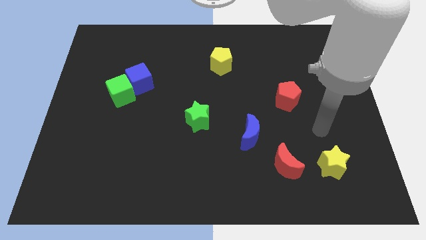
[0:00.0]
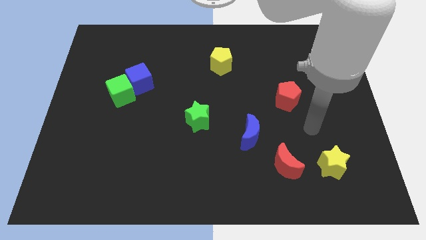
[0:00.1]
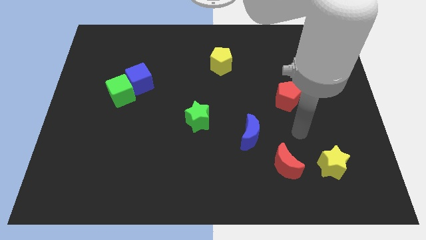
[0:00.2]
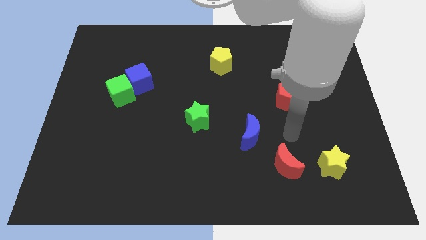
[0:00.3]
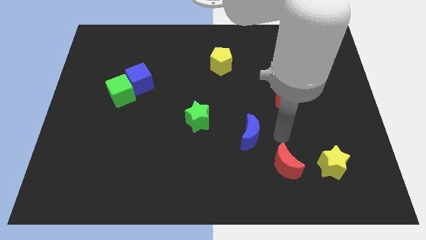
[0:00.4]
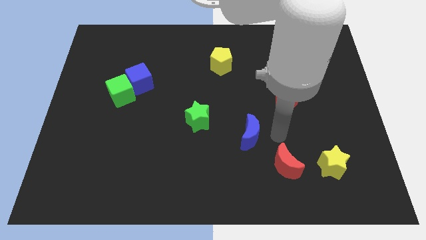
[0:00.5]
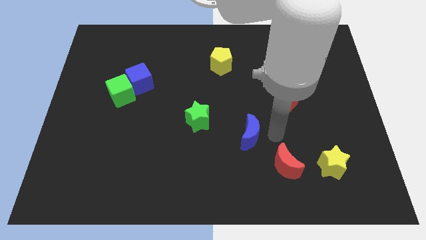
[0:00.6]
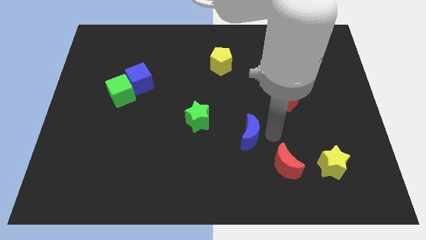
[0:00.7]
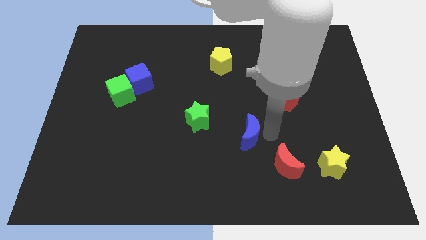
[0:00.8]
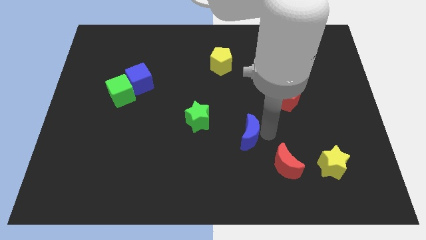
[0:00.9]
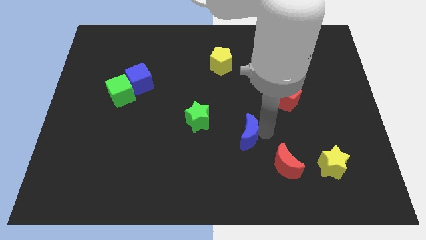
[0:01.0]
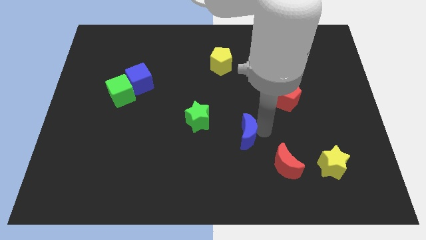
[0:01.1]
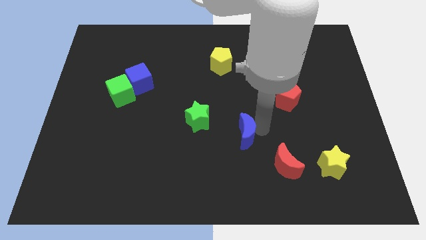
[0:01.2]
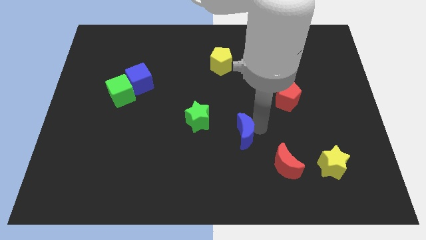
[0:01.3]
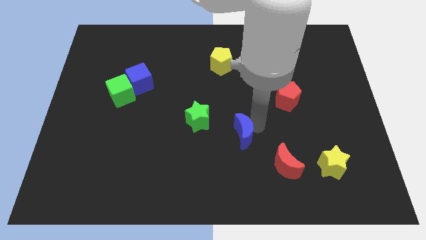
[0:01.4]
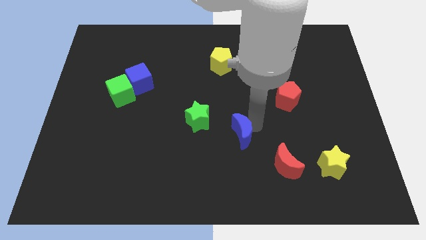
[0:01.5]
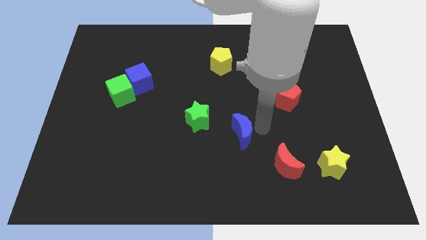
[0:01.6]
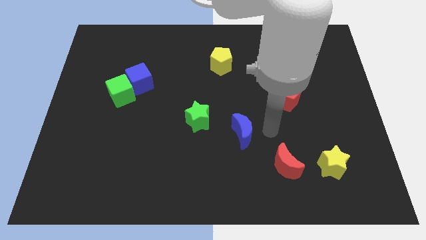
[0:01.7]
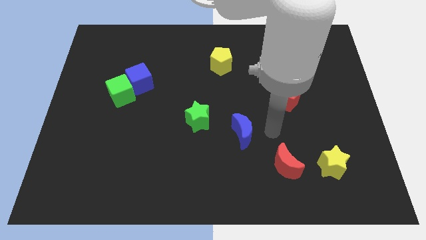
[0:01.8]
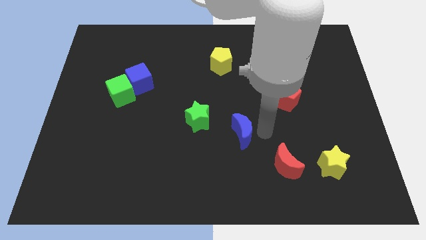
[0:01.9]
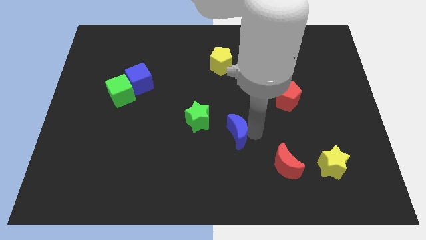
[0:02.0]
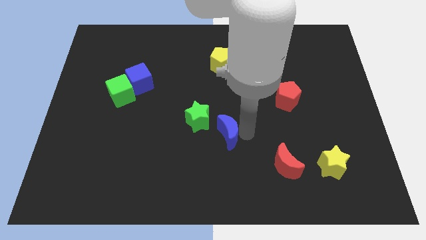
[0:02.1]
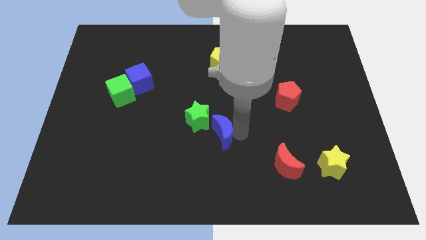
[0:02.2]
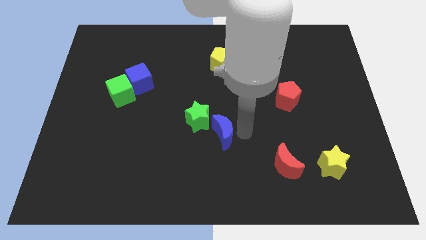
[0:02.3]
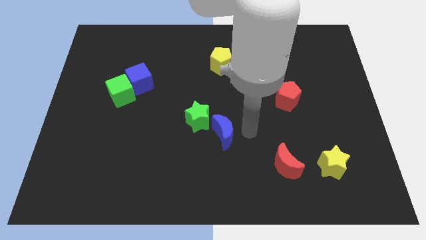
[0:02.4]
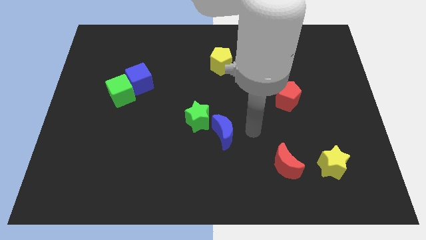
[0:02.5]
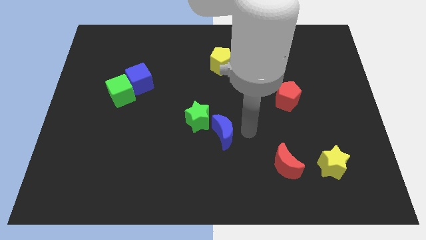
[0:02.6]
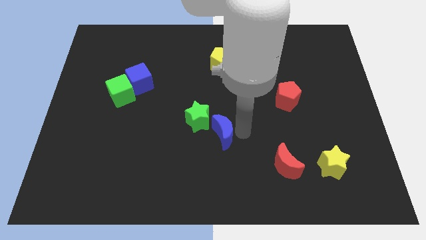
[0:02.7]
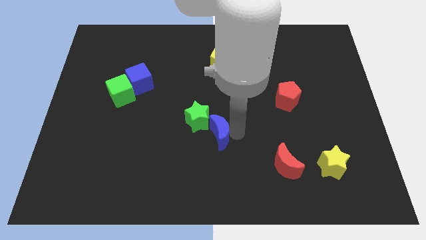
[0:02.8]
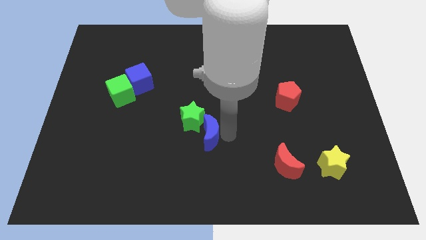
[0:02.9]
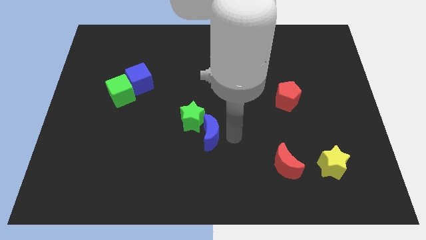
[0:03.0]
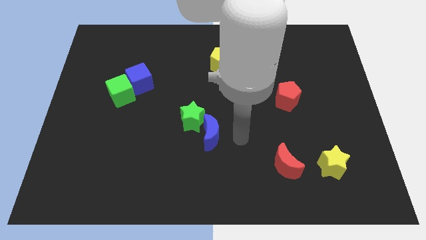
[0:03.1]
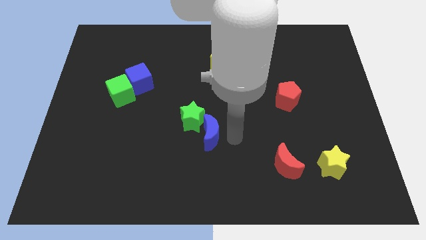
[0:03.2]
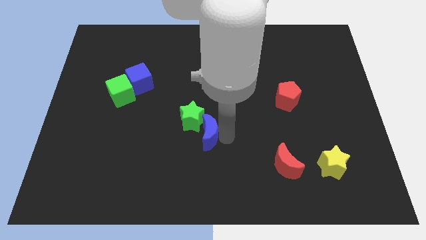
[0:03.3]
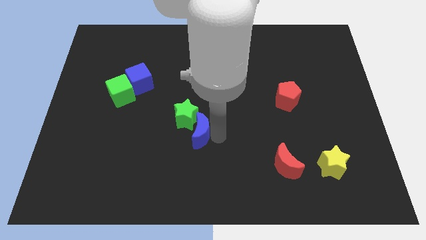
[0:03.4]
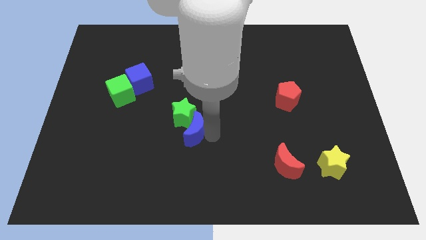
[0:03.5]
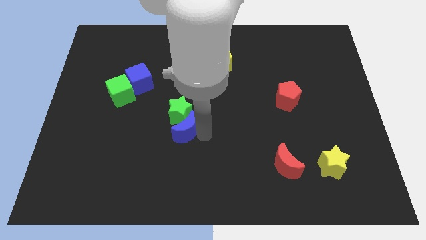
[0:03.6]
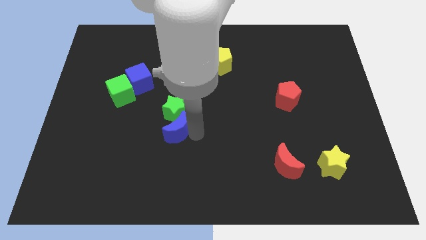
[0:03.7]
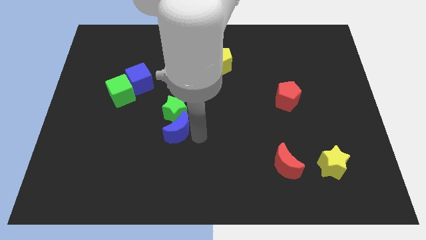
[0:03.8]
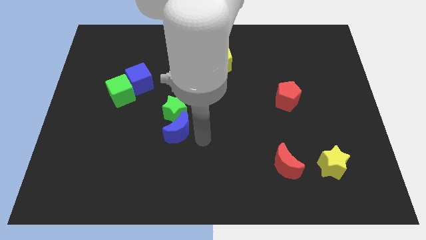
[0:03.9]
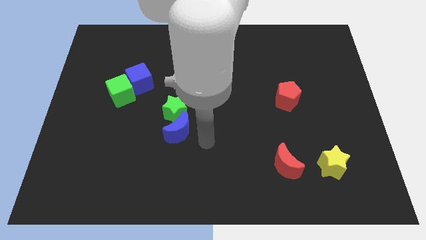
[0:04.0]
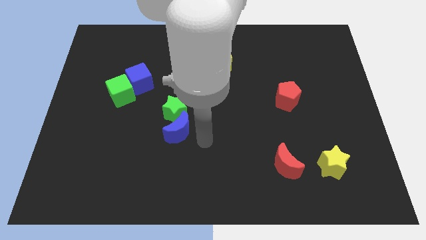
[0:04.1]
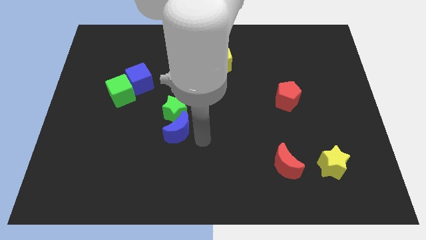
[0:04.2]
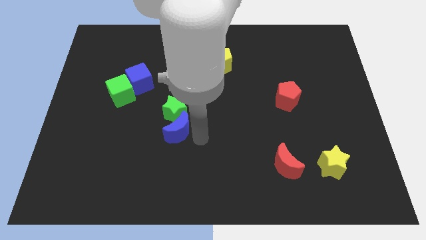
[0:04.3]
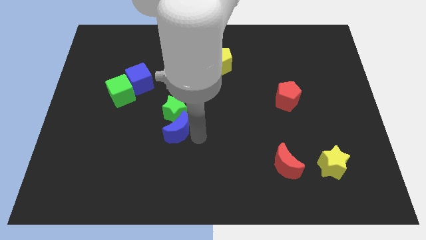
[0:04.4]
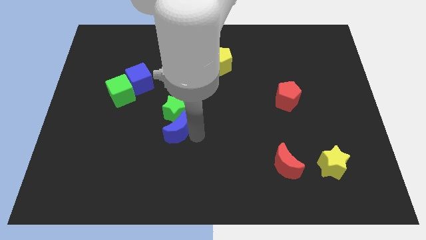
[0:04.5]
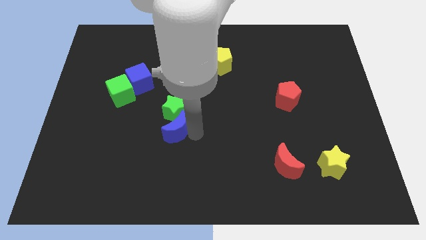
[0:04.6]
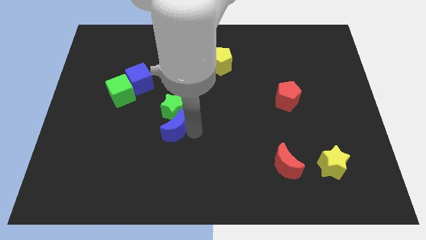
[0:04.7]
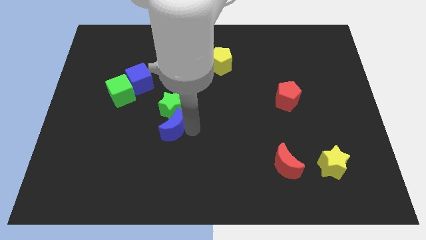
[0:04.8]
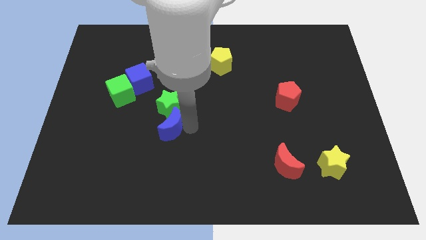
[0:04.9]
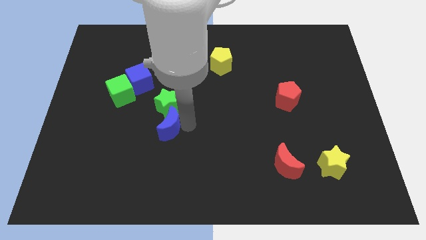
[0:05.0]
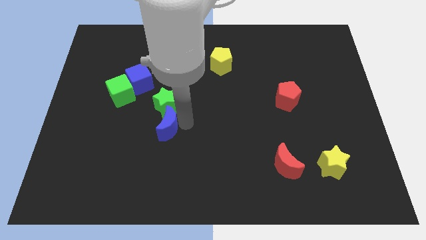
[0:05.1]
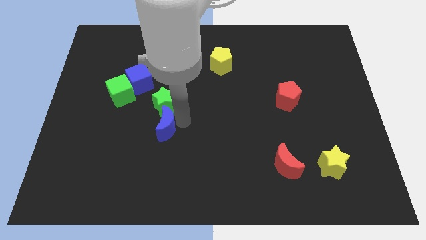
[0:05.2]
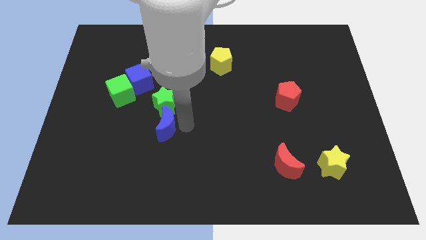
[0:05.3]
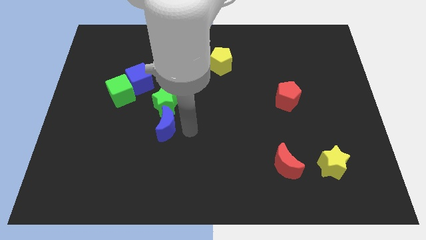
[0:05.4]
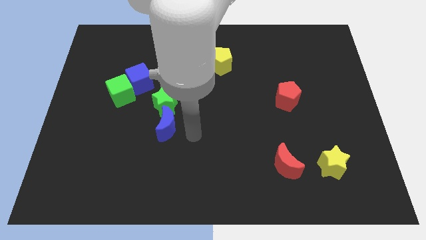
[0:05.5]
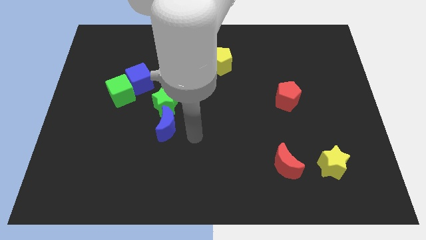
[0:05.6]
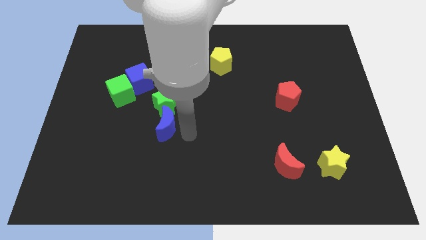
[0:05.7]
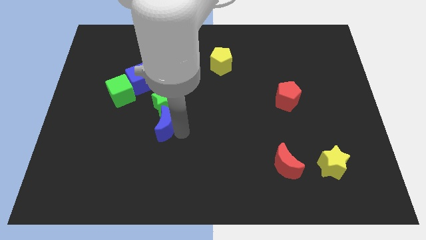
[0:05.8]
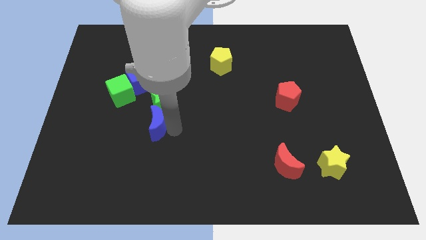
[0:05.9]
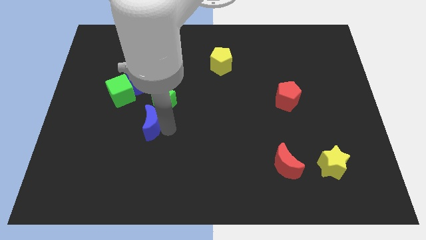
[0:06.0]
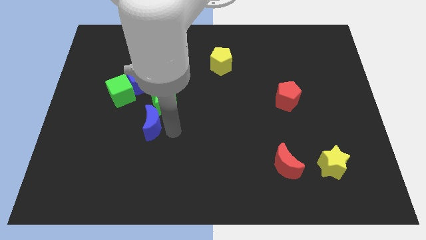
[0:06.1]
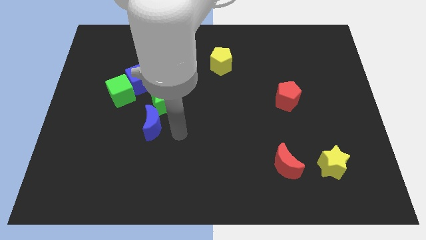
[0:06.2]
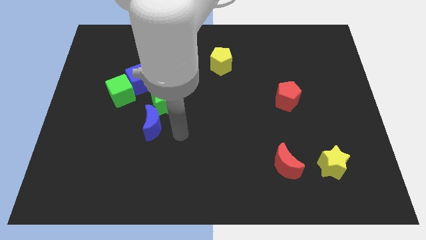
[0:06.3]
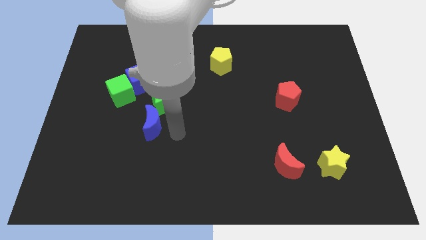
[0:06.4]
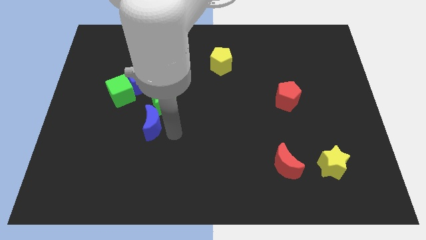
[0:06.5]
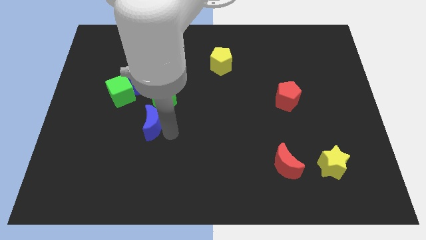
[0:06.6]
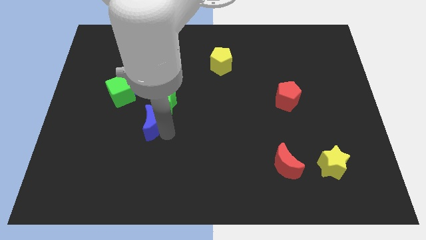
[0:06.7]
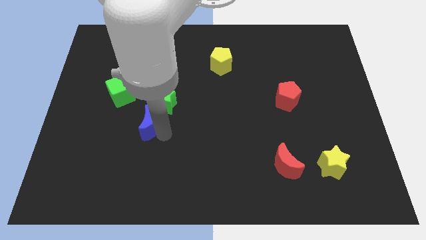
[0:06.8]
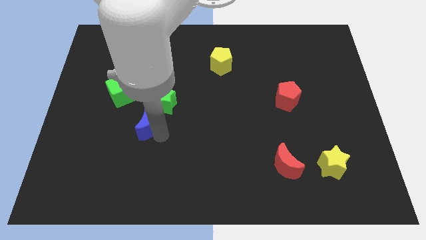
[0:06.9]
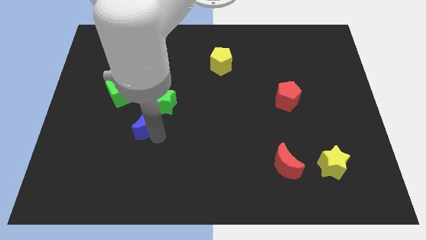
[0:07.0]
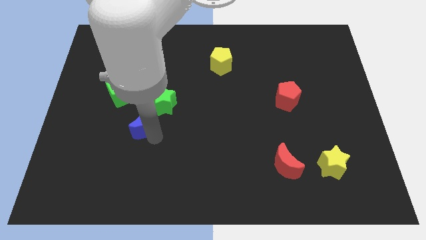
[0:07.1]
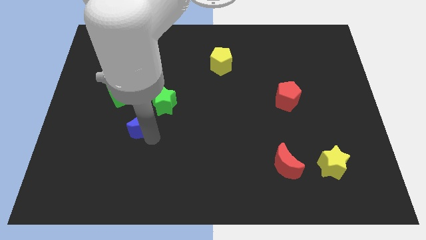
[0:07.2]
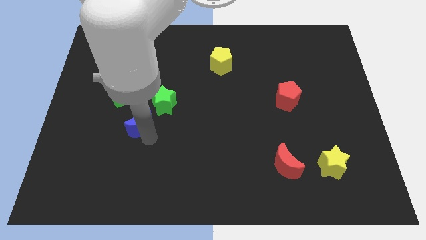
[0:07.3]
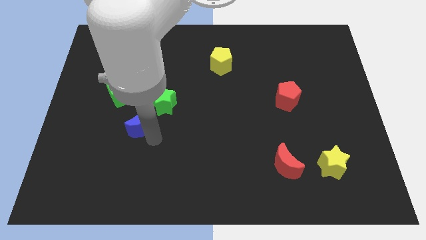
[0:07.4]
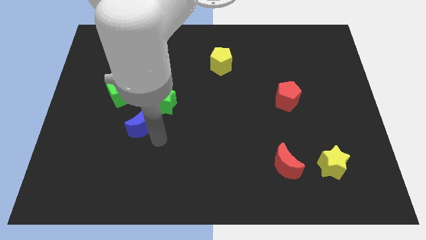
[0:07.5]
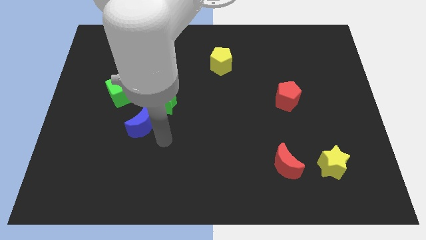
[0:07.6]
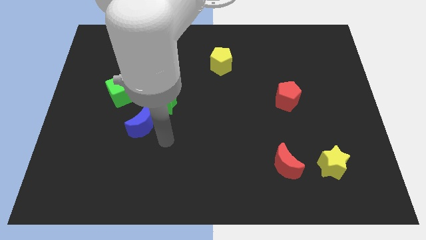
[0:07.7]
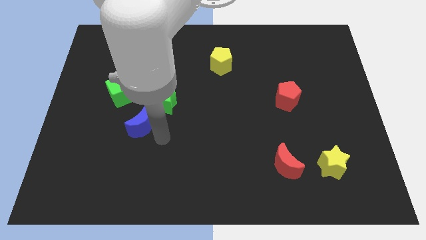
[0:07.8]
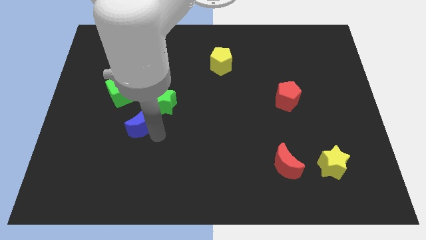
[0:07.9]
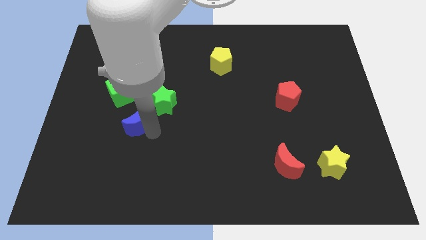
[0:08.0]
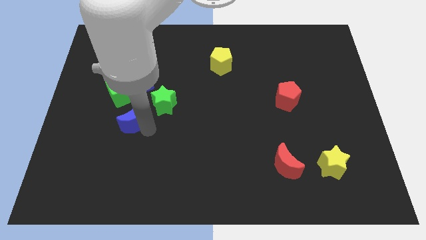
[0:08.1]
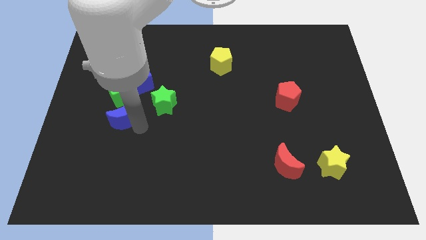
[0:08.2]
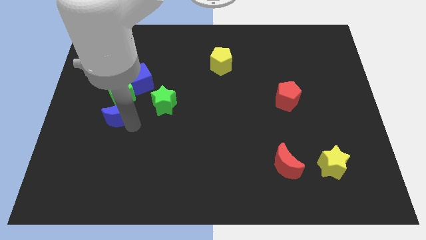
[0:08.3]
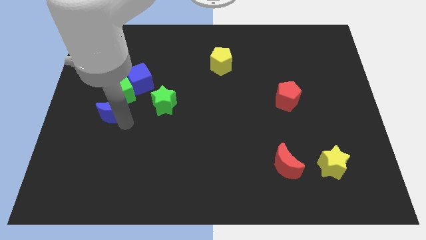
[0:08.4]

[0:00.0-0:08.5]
slide the blue moon to the bottom left of the blue cube
